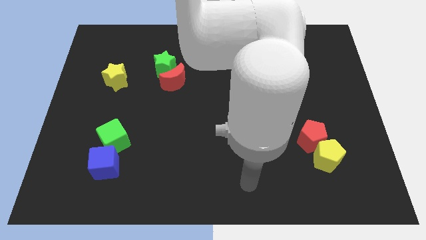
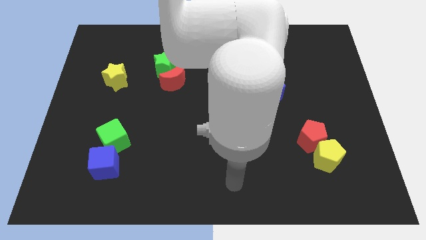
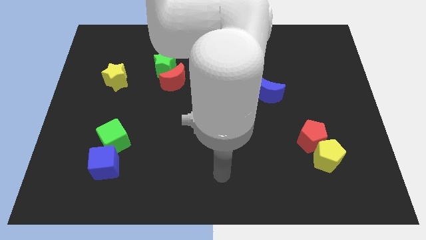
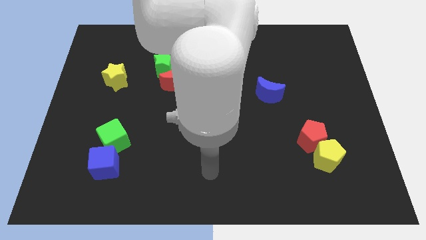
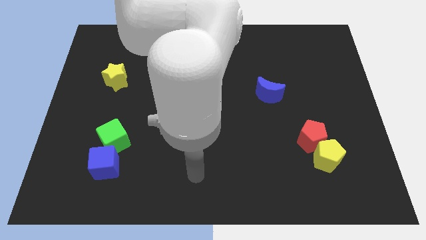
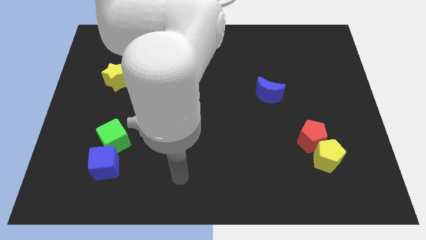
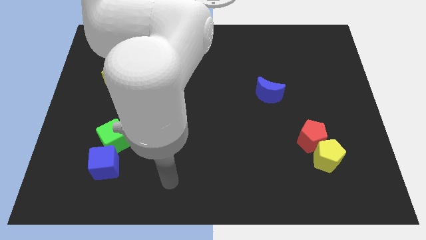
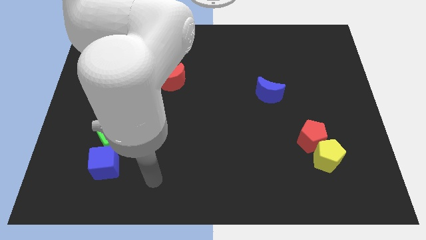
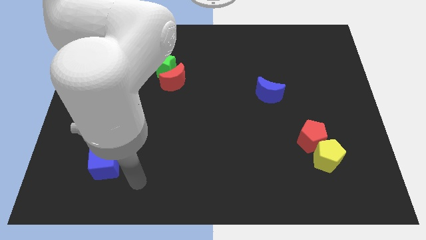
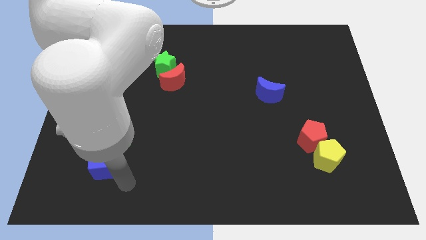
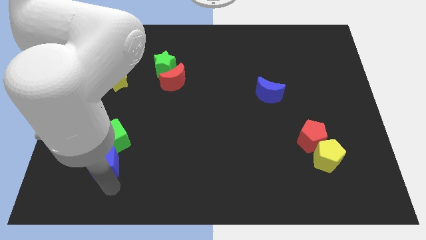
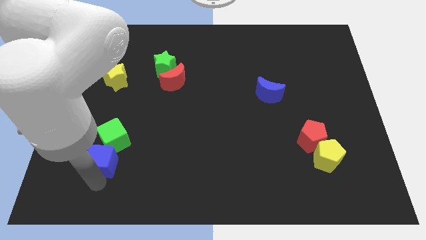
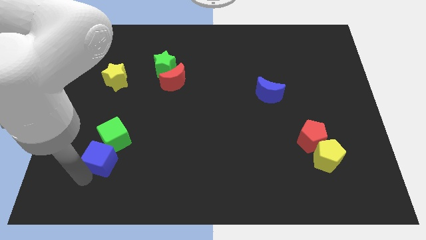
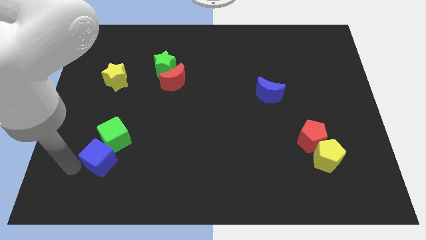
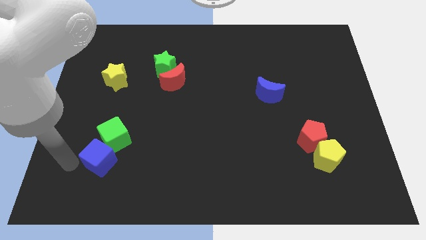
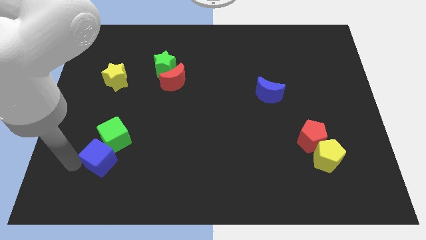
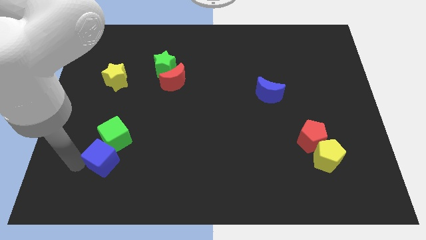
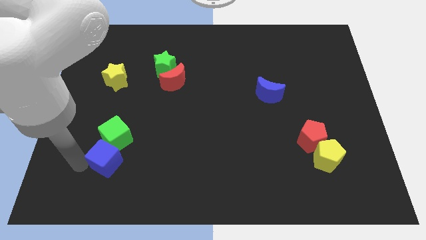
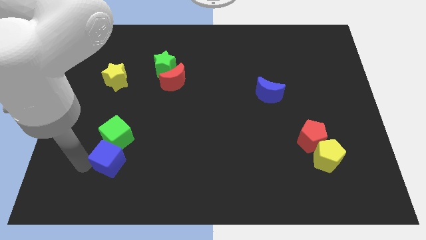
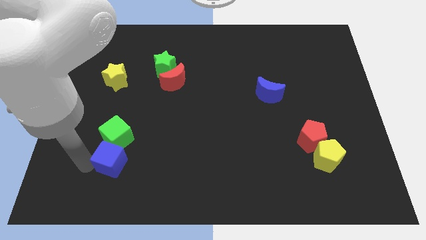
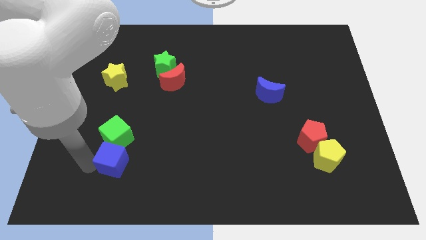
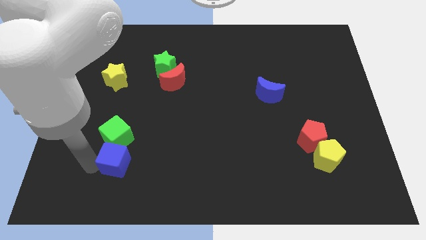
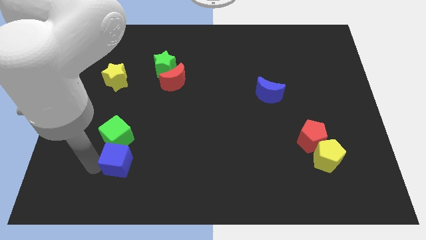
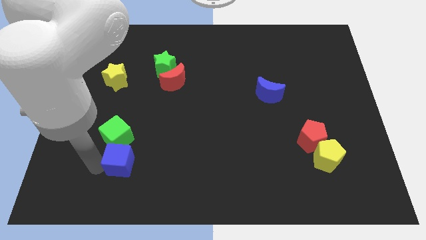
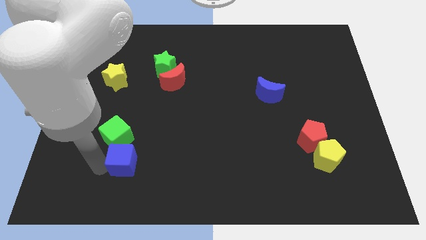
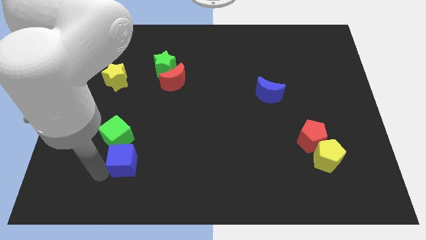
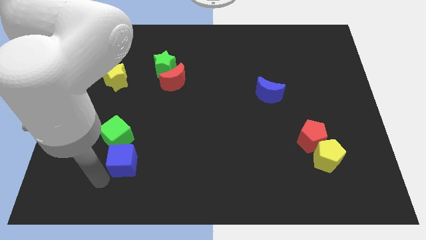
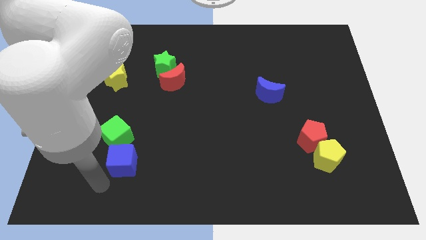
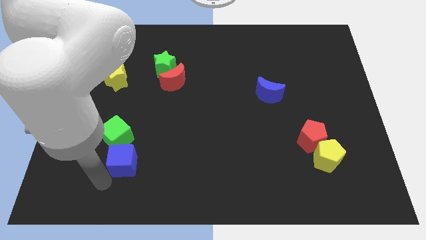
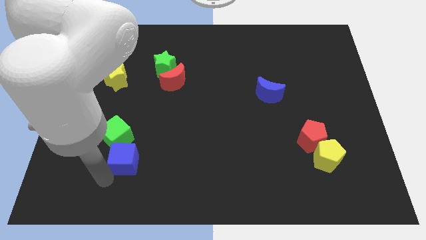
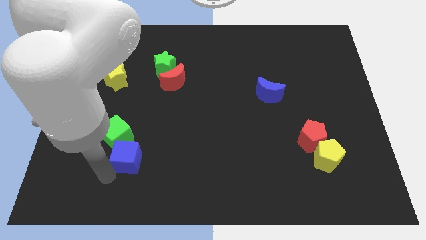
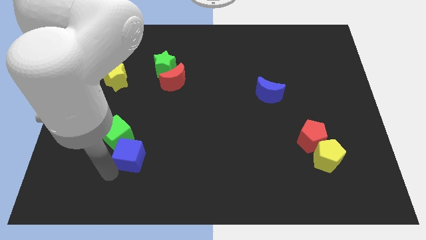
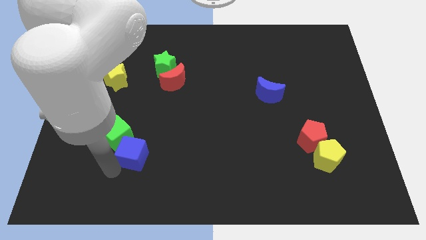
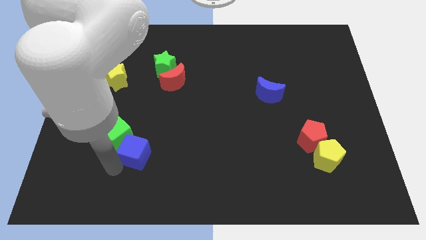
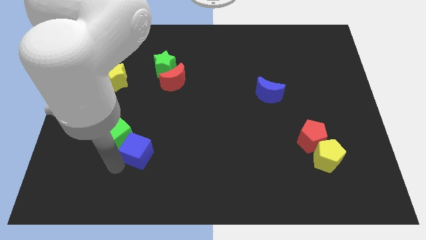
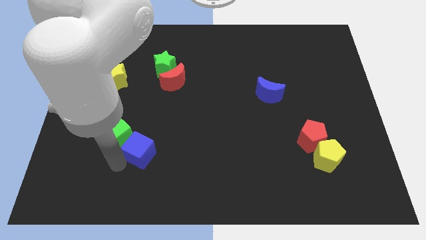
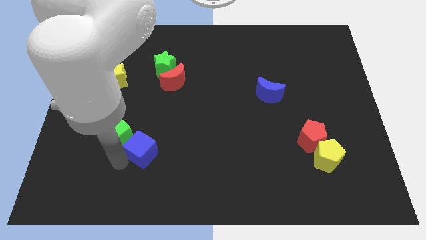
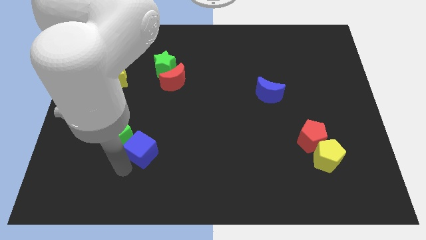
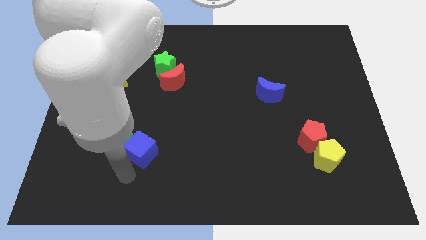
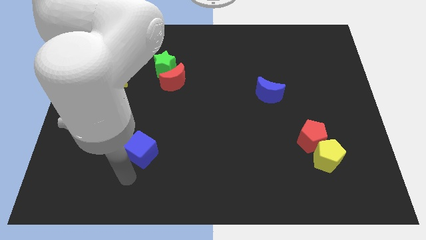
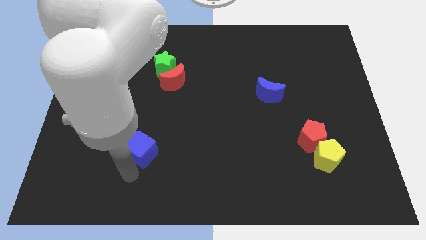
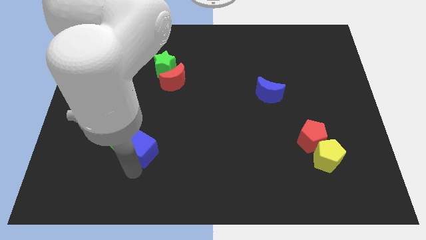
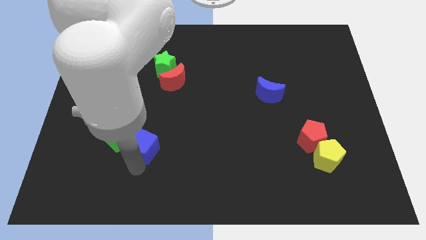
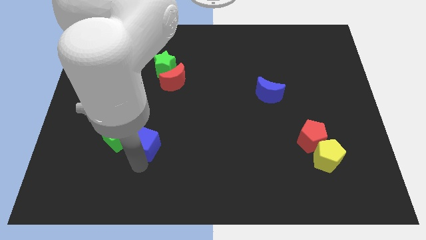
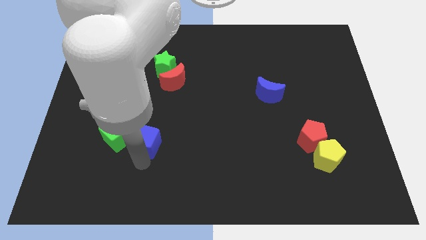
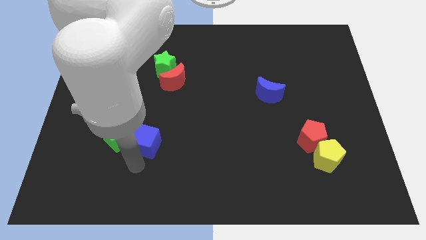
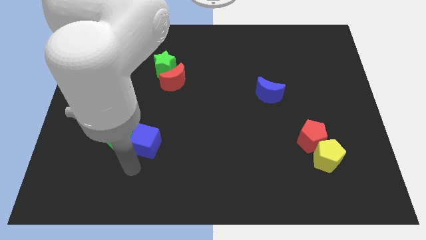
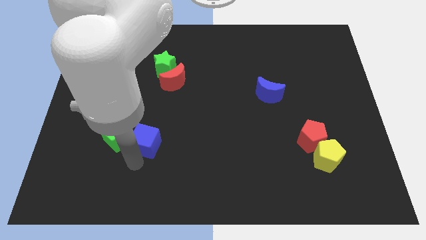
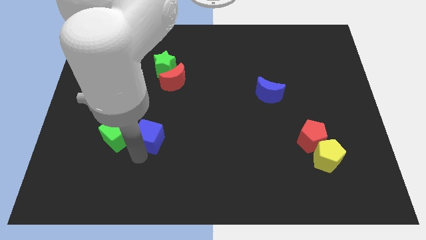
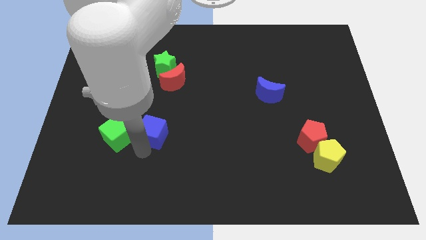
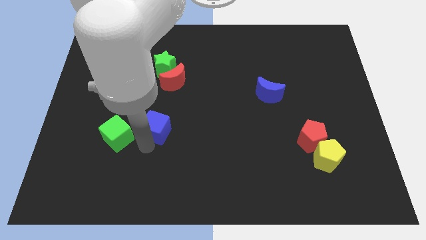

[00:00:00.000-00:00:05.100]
slide the blue cube to the bottom side of the red moon

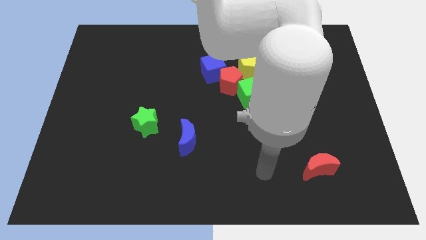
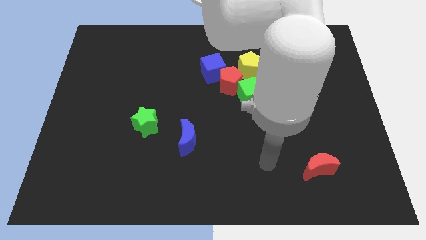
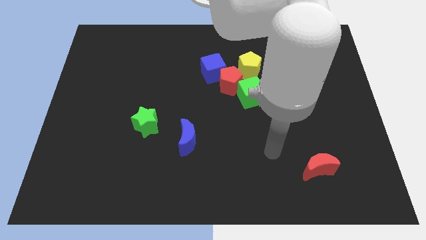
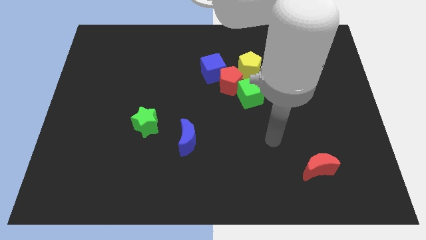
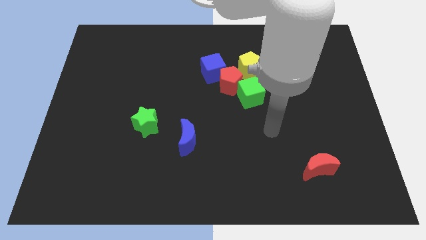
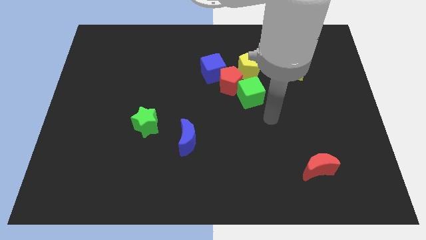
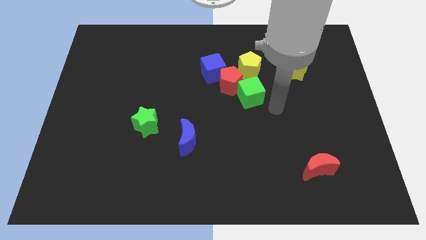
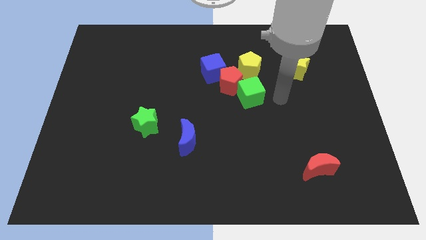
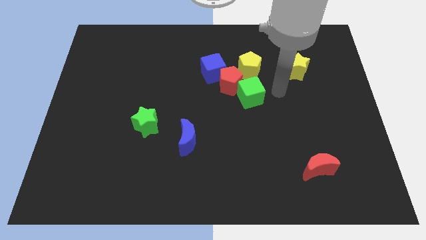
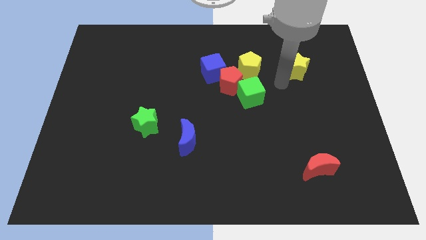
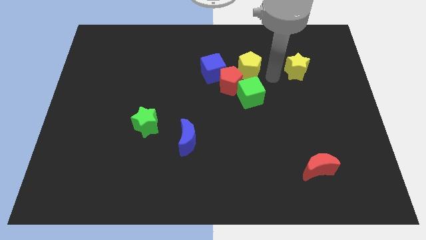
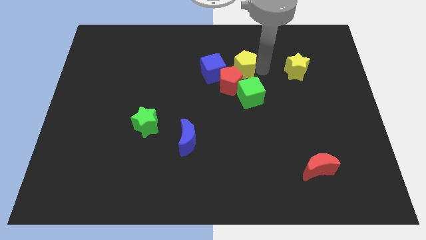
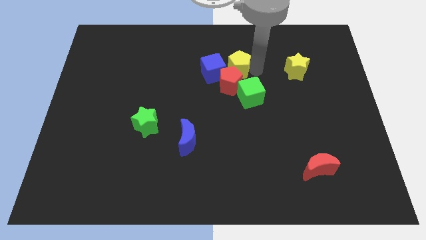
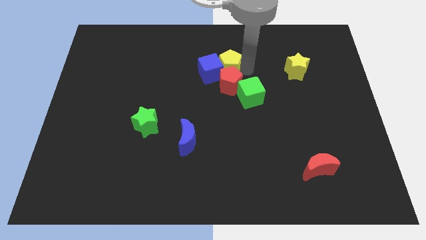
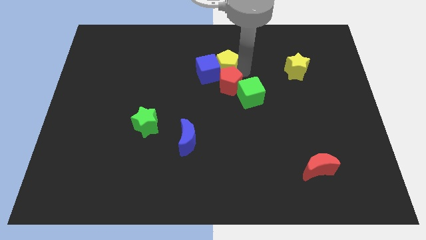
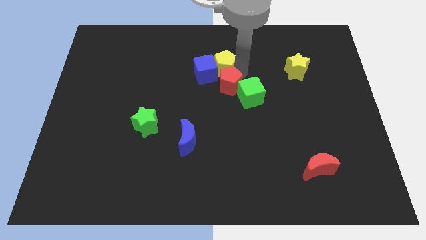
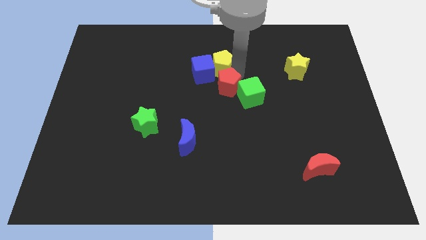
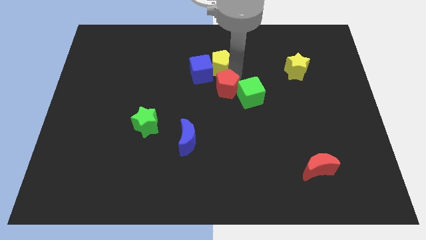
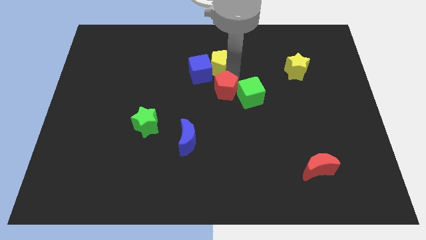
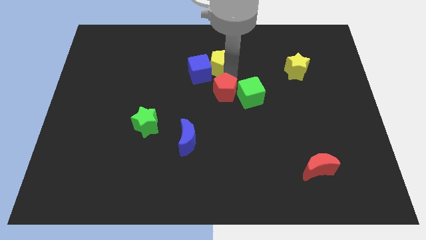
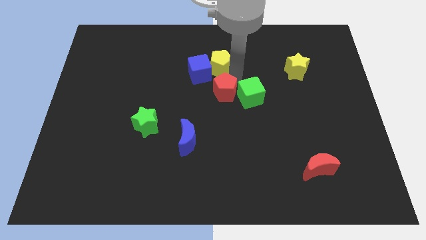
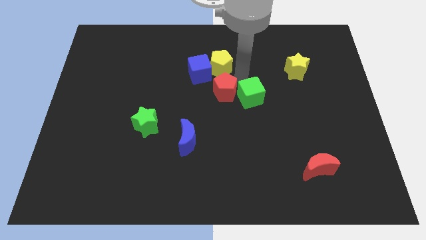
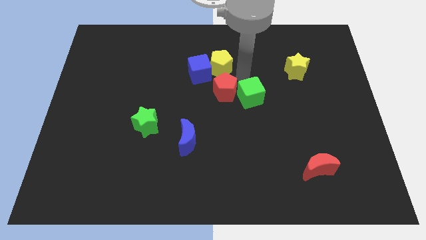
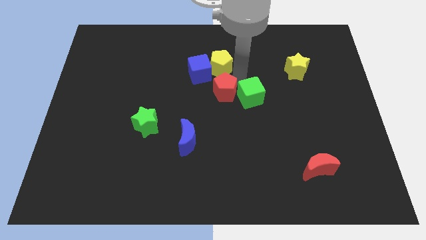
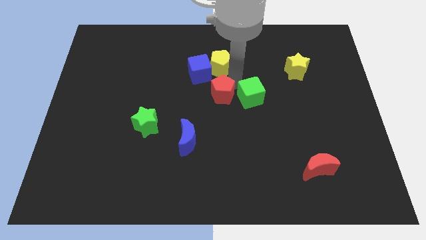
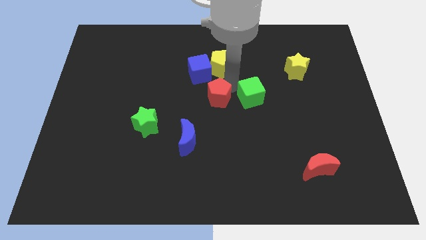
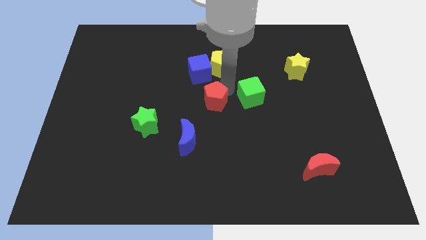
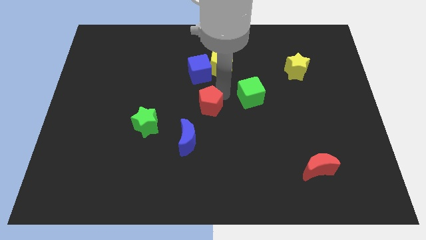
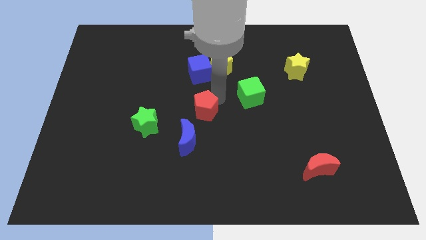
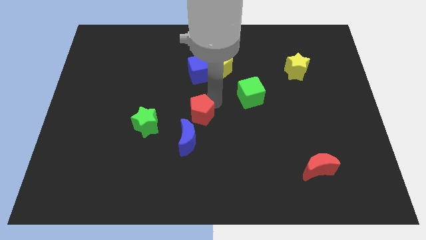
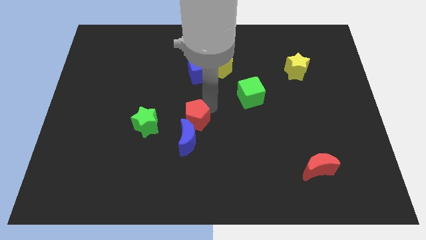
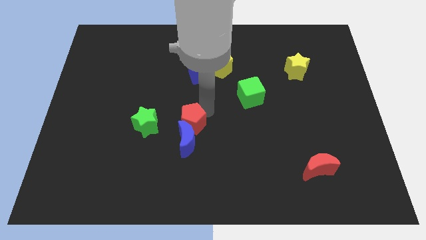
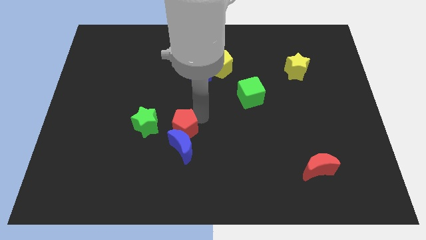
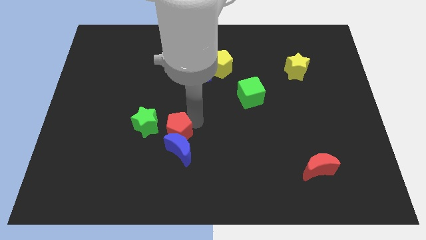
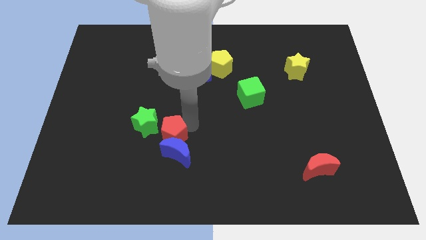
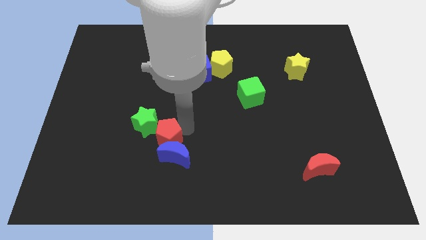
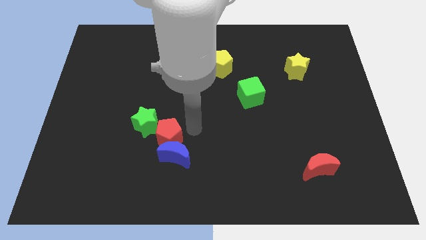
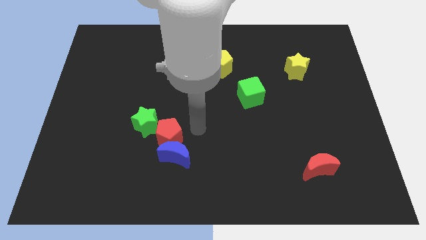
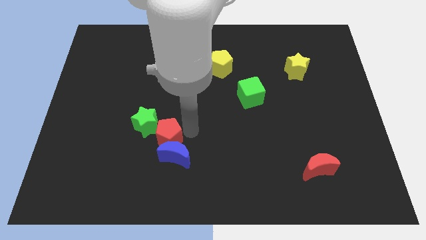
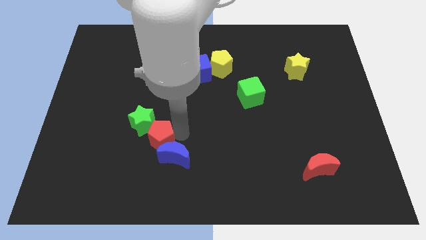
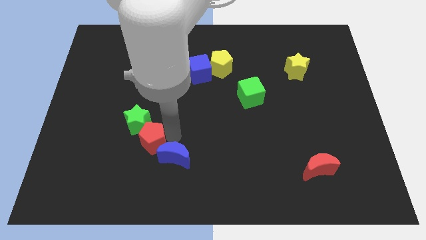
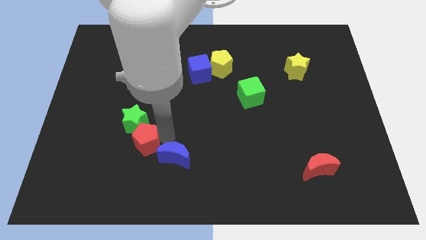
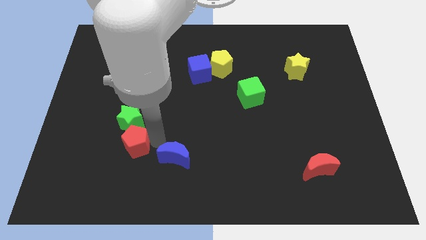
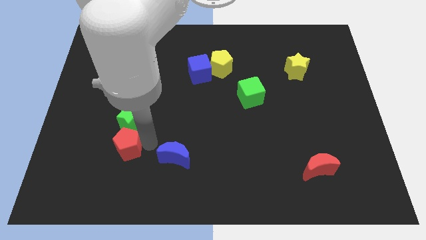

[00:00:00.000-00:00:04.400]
push the red pentagon diagonally down and to the left of the green star
